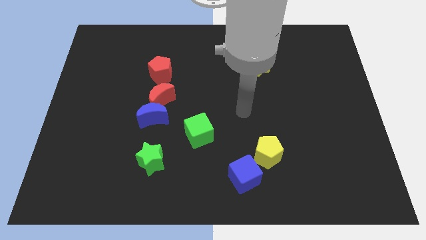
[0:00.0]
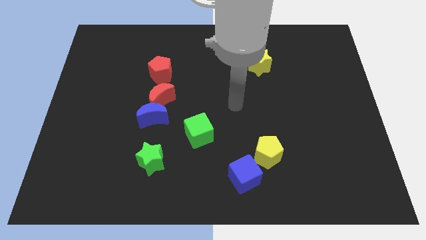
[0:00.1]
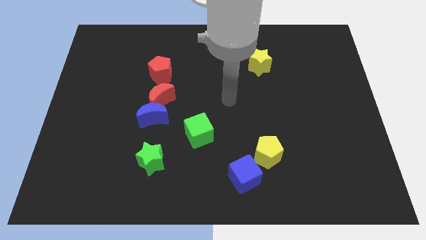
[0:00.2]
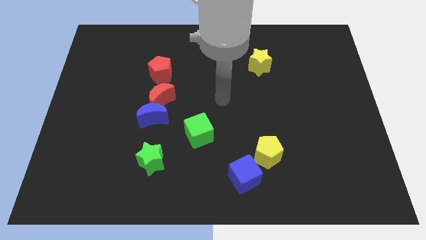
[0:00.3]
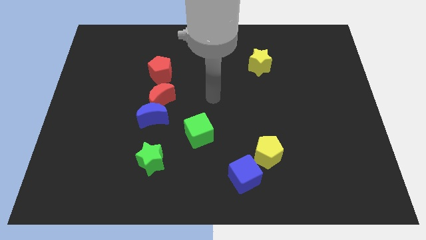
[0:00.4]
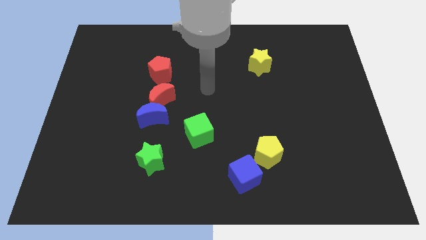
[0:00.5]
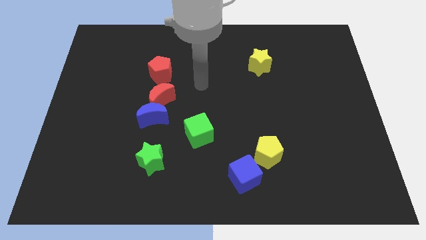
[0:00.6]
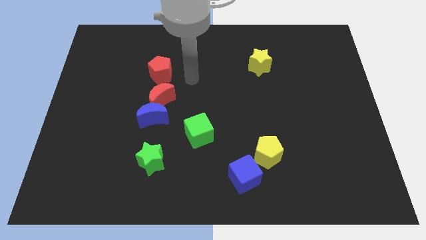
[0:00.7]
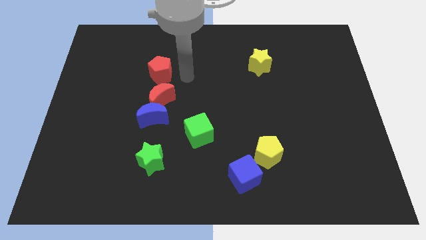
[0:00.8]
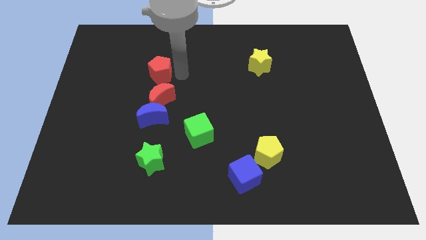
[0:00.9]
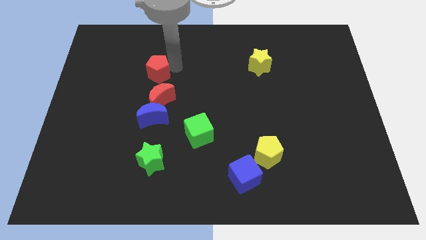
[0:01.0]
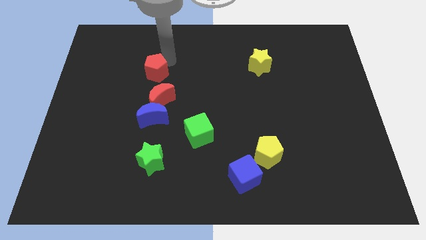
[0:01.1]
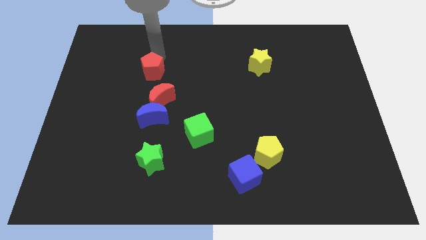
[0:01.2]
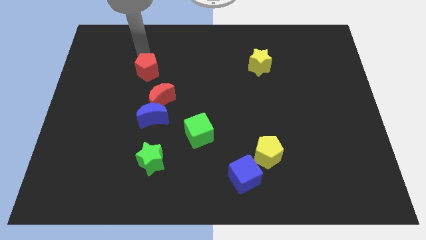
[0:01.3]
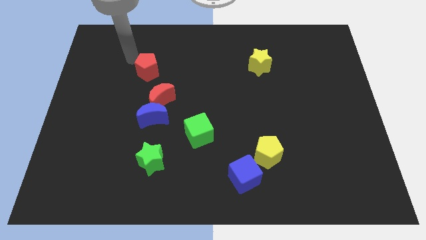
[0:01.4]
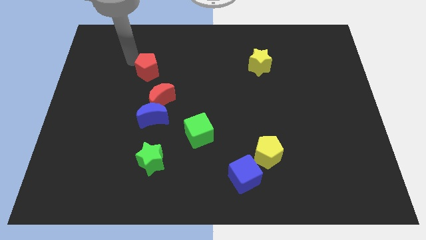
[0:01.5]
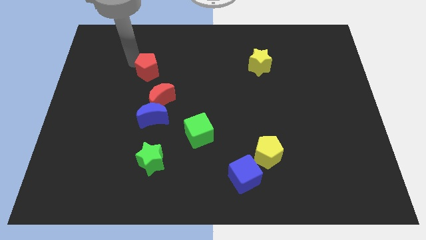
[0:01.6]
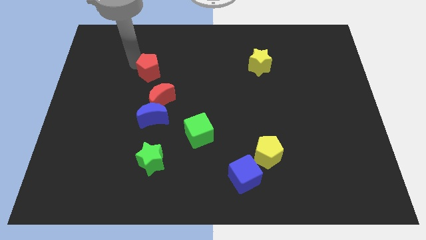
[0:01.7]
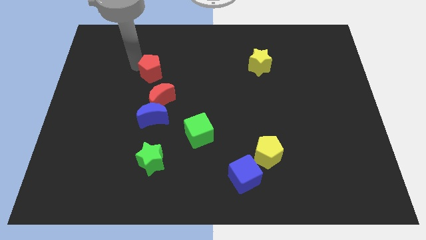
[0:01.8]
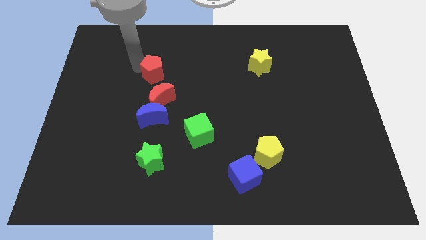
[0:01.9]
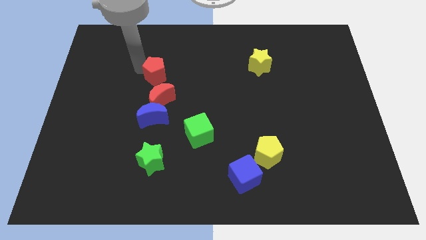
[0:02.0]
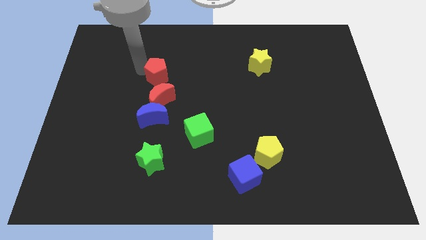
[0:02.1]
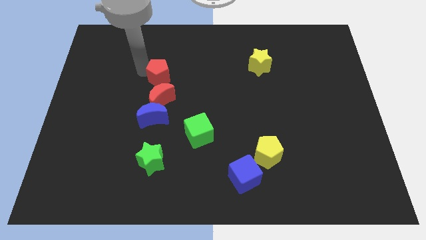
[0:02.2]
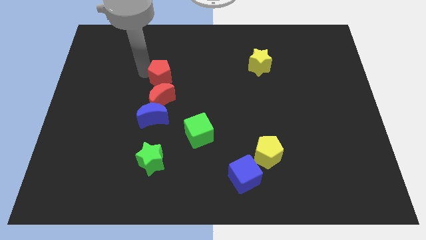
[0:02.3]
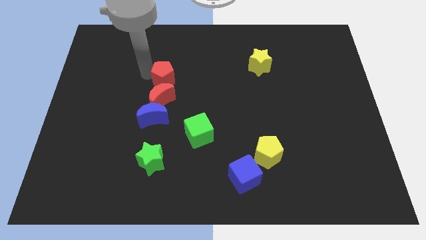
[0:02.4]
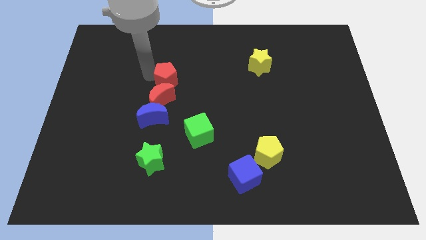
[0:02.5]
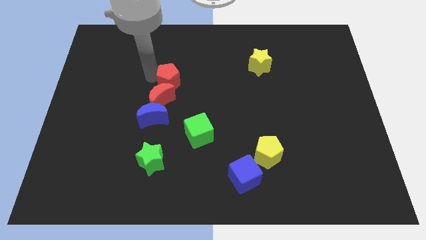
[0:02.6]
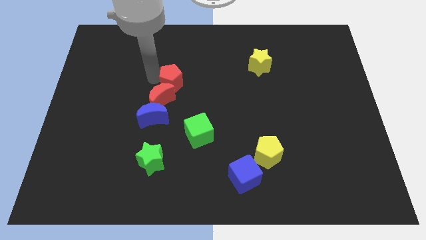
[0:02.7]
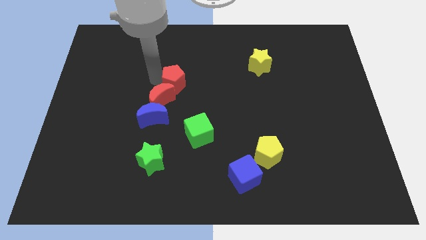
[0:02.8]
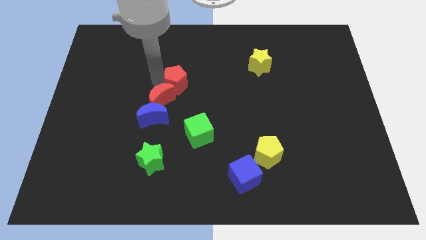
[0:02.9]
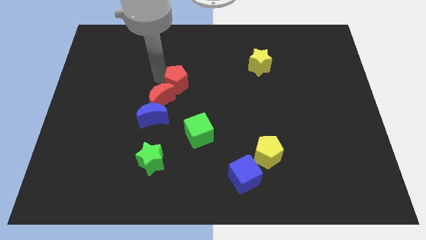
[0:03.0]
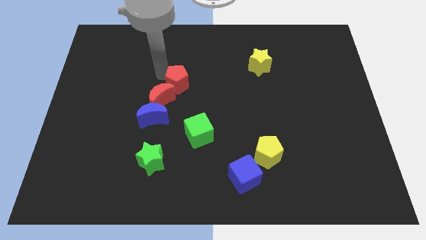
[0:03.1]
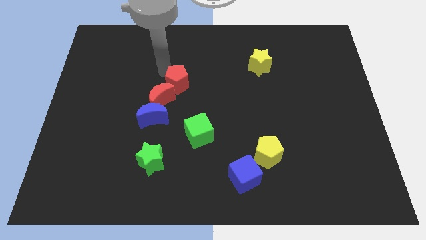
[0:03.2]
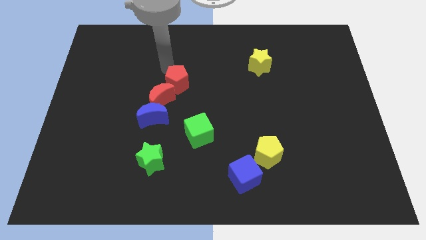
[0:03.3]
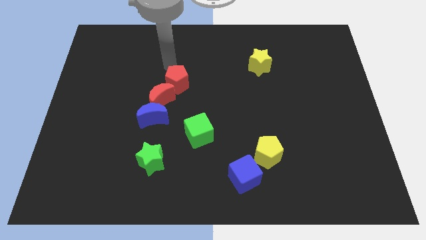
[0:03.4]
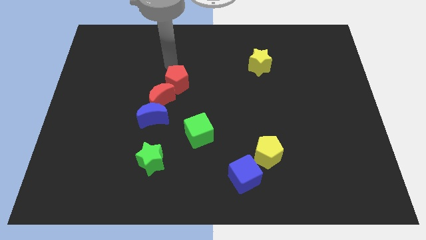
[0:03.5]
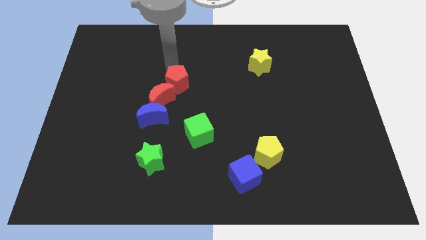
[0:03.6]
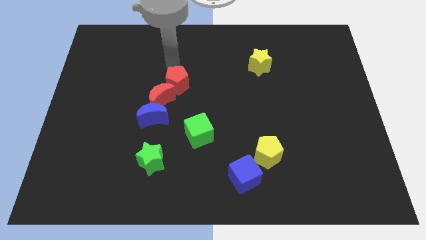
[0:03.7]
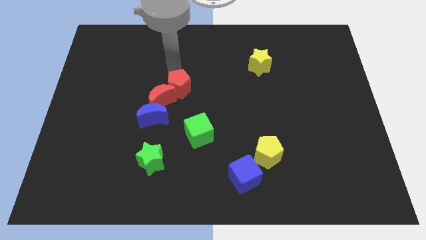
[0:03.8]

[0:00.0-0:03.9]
slide the red pentagon a bit downwards and right

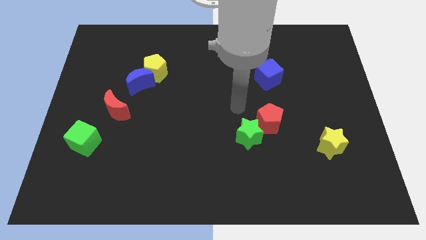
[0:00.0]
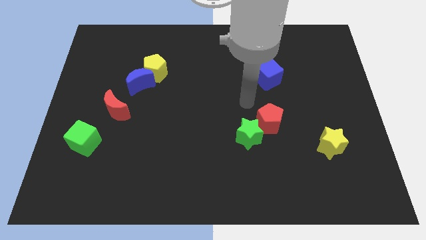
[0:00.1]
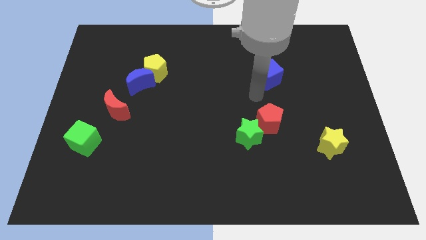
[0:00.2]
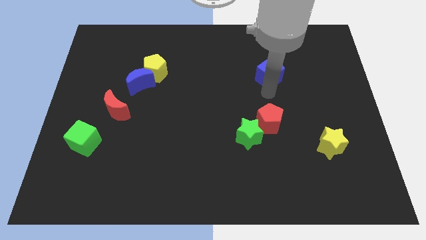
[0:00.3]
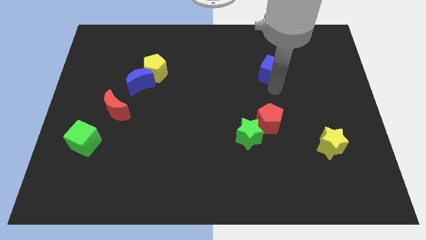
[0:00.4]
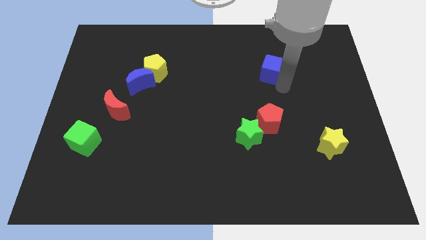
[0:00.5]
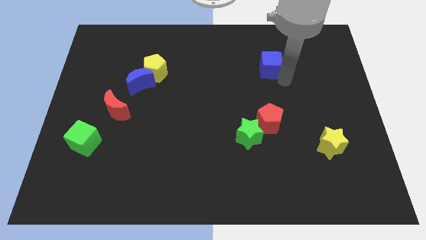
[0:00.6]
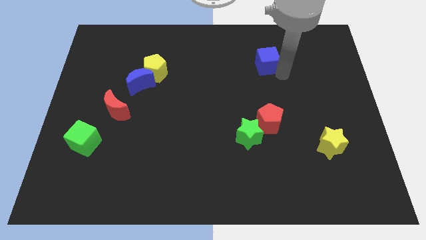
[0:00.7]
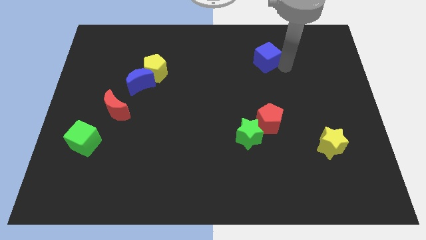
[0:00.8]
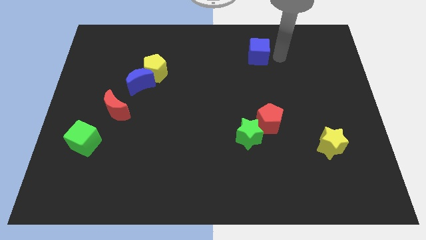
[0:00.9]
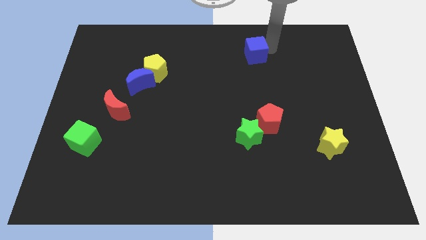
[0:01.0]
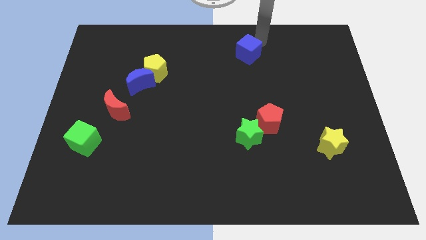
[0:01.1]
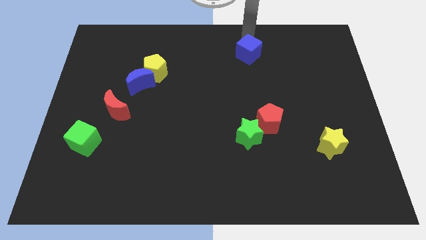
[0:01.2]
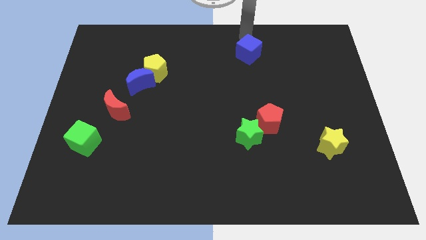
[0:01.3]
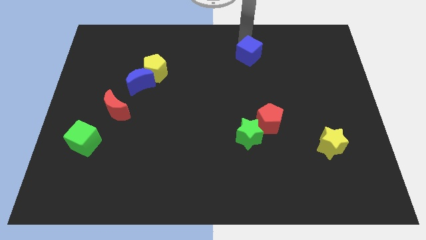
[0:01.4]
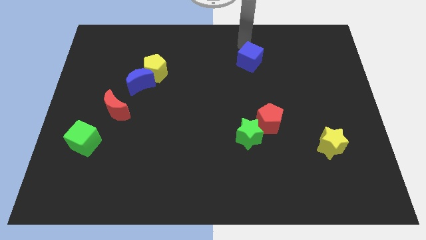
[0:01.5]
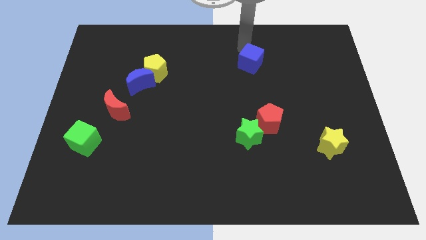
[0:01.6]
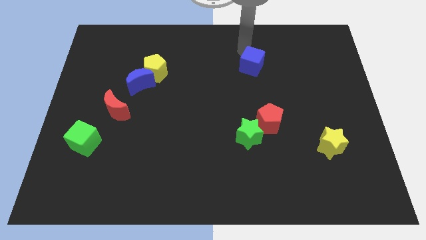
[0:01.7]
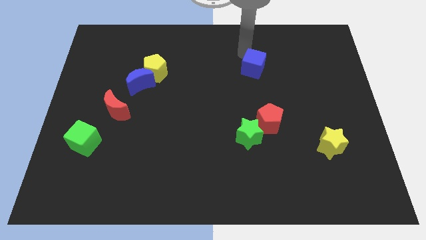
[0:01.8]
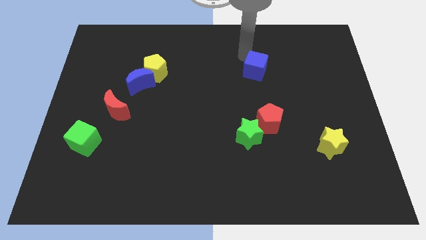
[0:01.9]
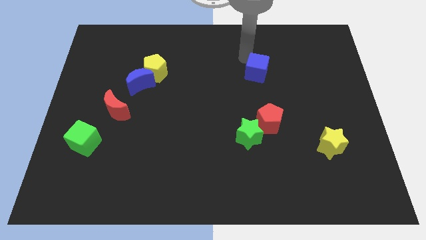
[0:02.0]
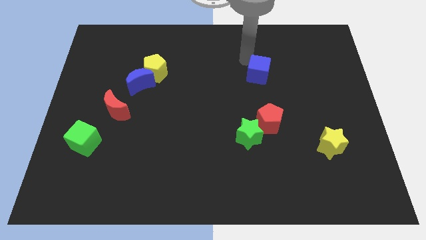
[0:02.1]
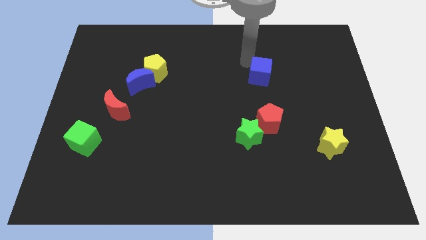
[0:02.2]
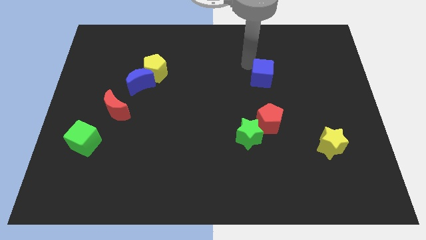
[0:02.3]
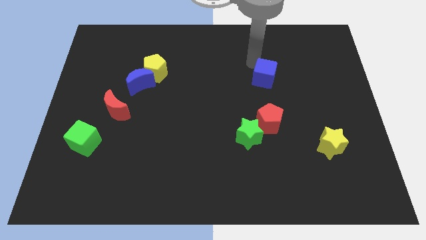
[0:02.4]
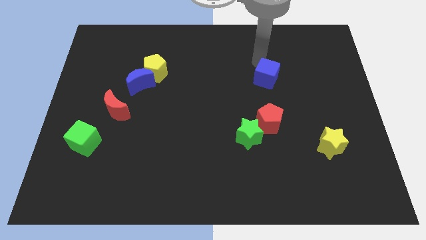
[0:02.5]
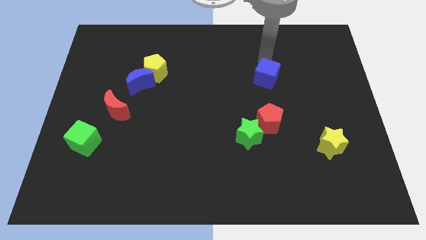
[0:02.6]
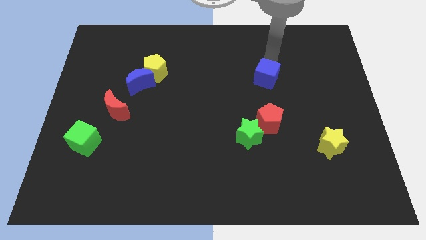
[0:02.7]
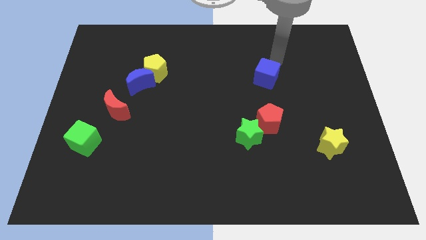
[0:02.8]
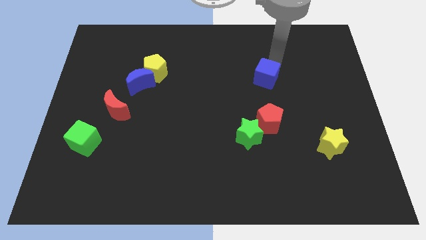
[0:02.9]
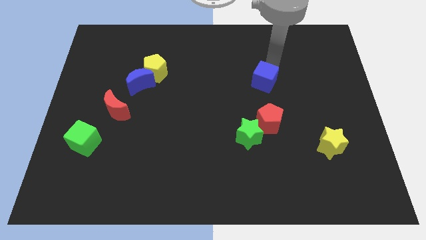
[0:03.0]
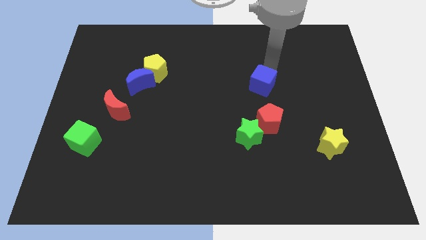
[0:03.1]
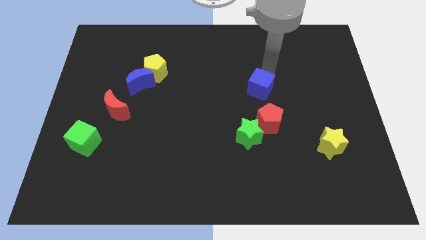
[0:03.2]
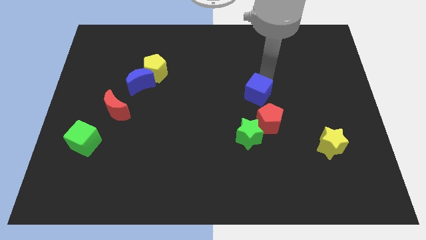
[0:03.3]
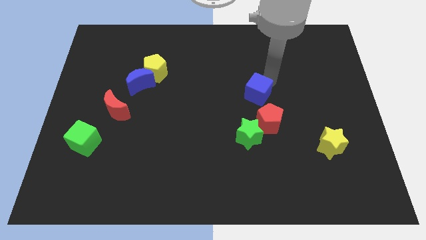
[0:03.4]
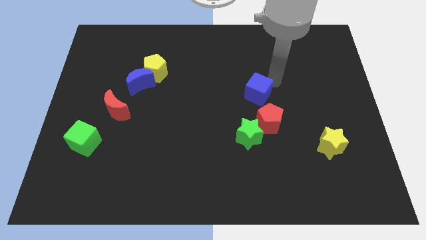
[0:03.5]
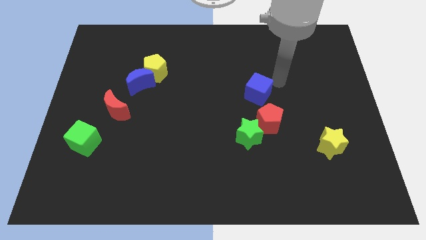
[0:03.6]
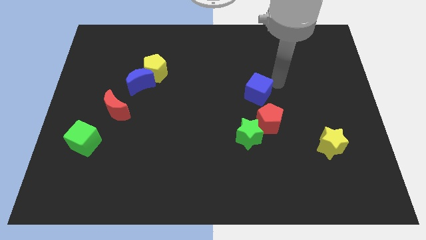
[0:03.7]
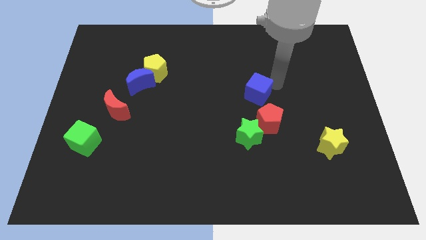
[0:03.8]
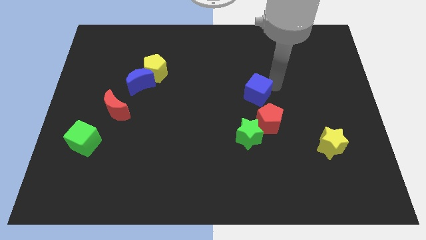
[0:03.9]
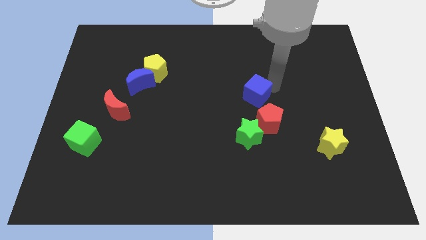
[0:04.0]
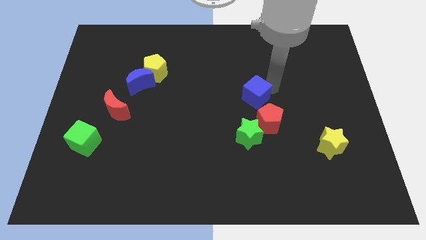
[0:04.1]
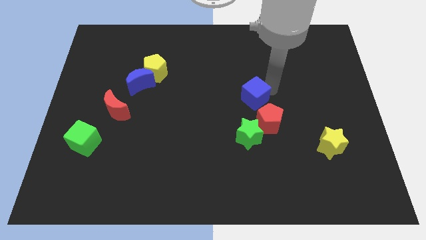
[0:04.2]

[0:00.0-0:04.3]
slide the blue cube downwards and left diagonally slightly
